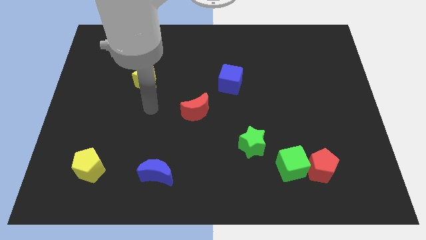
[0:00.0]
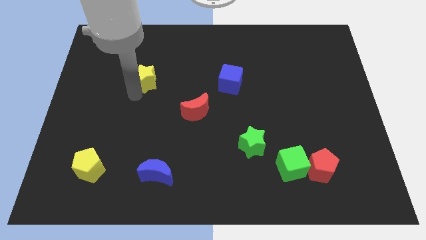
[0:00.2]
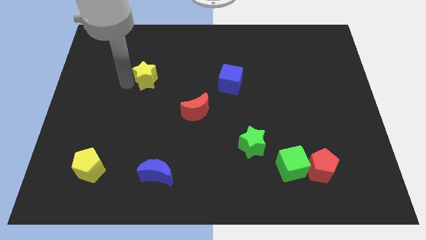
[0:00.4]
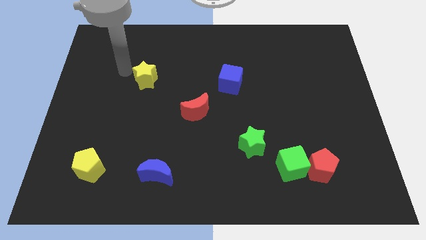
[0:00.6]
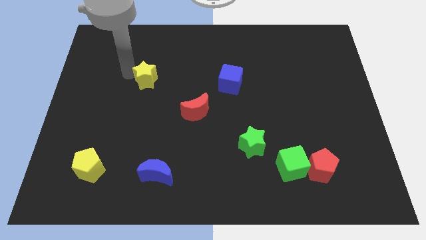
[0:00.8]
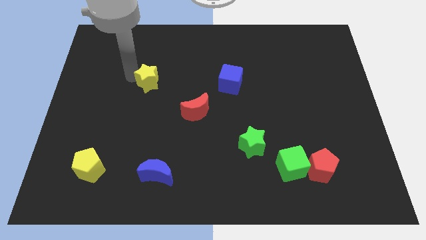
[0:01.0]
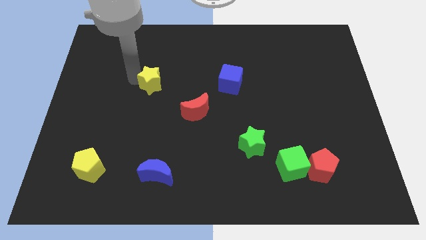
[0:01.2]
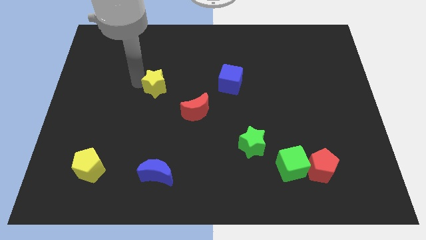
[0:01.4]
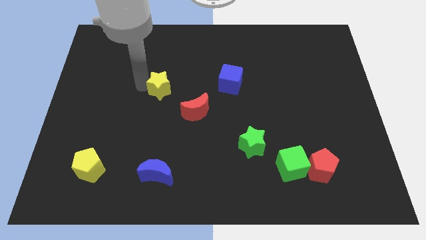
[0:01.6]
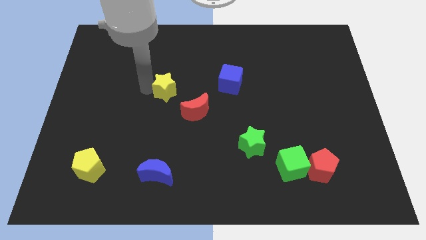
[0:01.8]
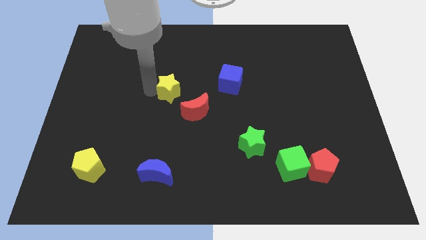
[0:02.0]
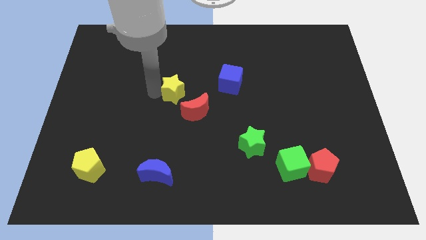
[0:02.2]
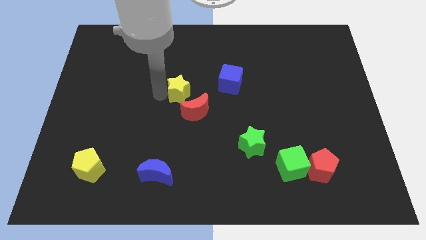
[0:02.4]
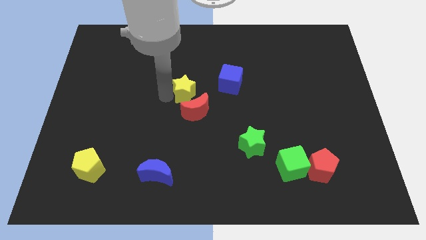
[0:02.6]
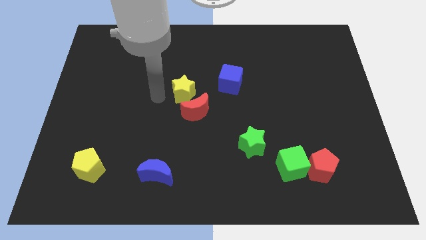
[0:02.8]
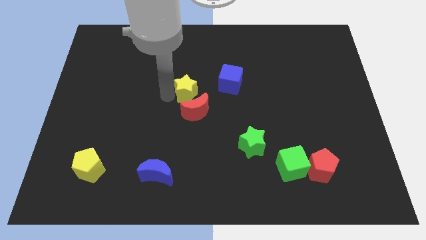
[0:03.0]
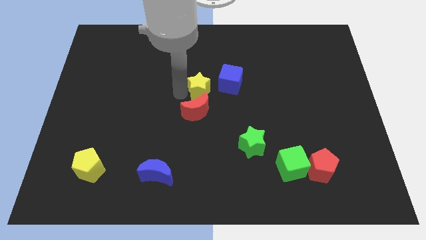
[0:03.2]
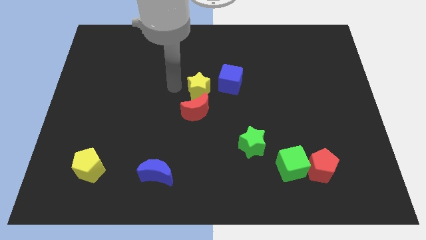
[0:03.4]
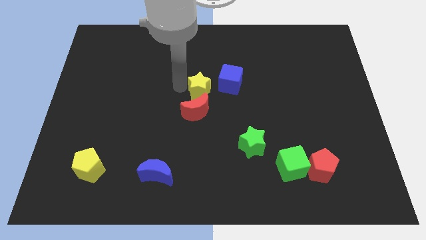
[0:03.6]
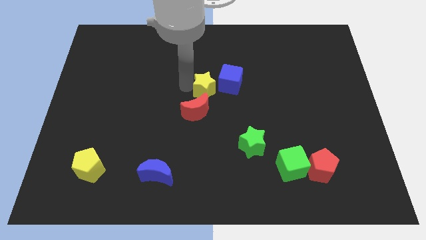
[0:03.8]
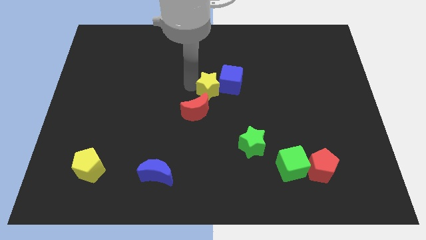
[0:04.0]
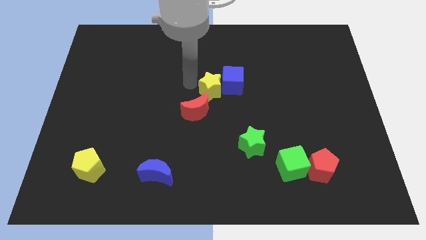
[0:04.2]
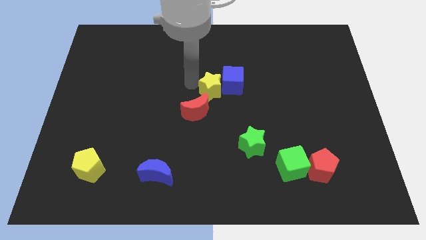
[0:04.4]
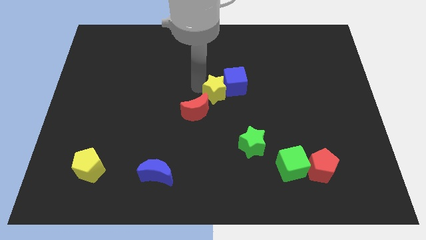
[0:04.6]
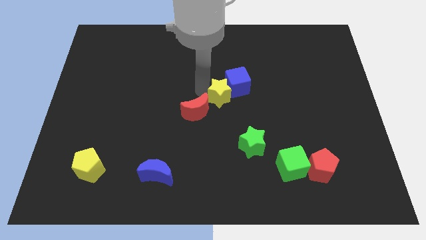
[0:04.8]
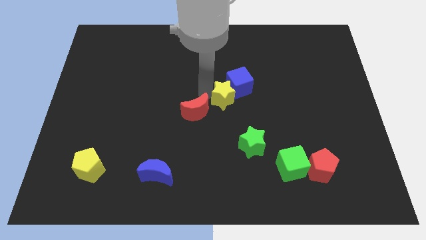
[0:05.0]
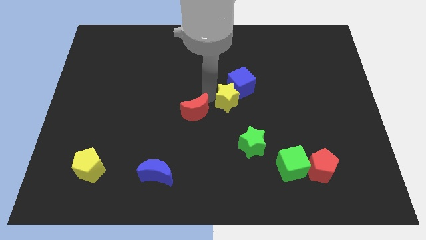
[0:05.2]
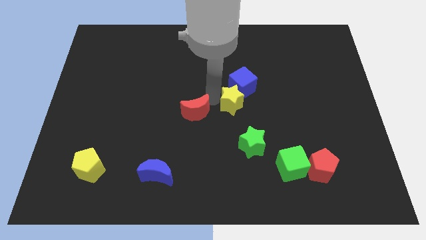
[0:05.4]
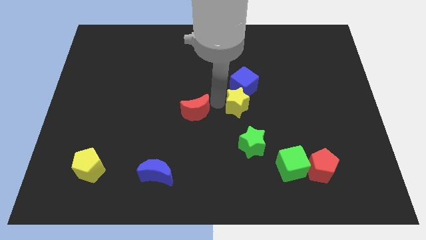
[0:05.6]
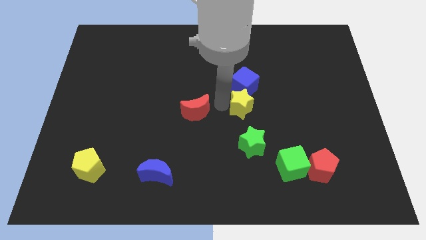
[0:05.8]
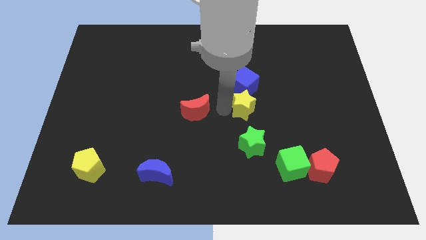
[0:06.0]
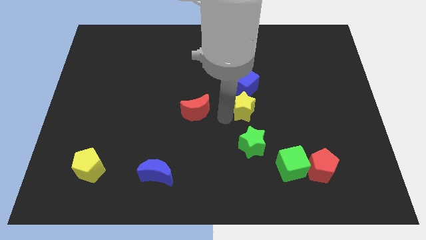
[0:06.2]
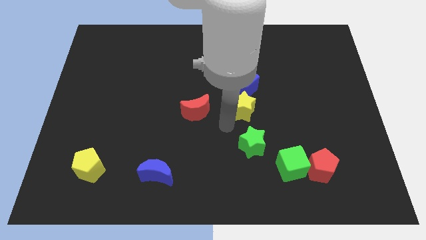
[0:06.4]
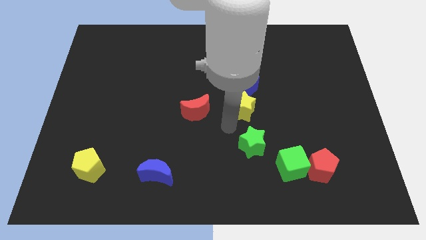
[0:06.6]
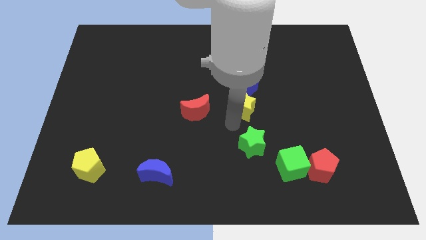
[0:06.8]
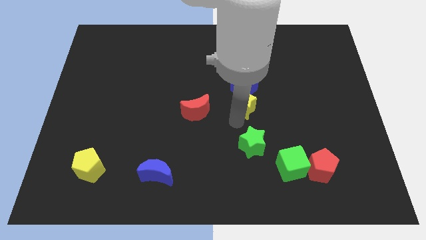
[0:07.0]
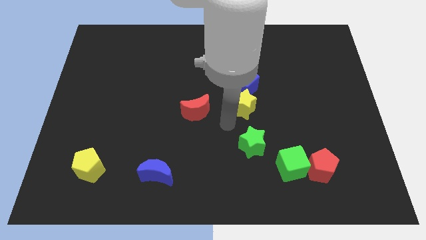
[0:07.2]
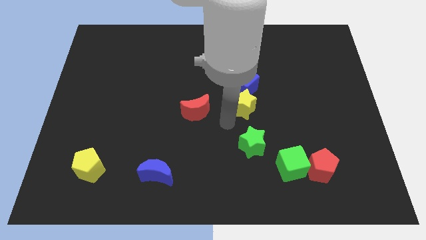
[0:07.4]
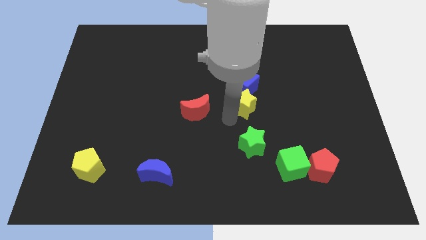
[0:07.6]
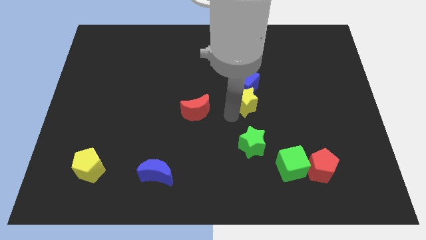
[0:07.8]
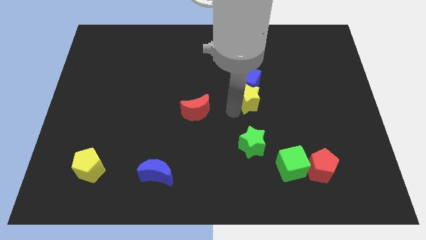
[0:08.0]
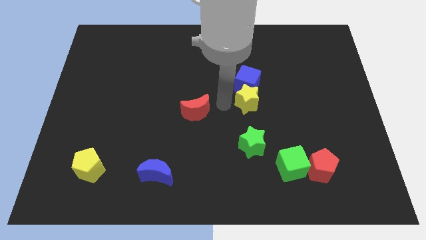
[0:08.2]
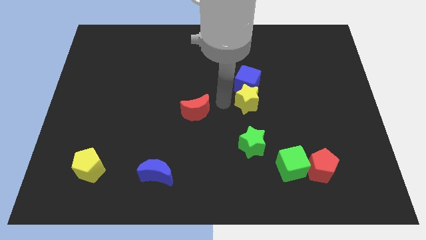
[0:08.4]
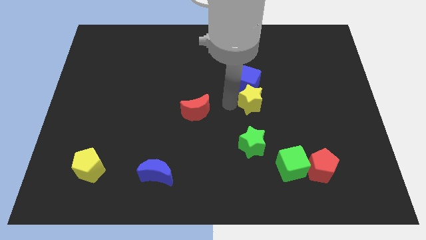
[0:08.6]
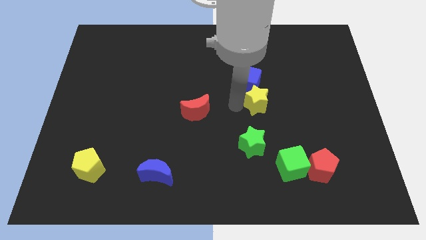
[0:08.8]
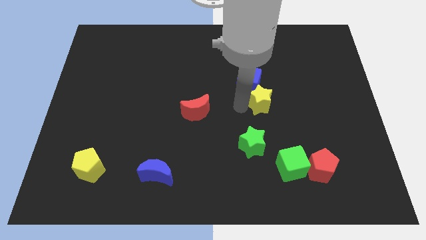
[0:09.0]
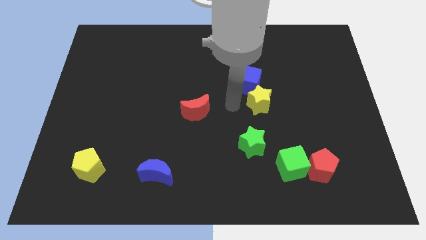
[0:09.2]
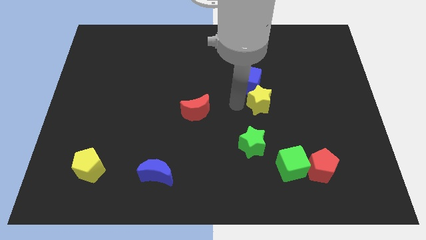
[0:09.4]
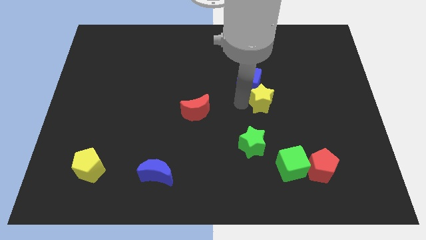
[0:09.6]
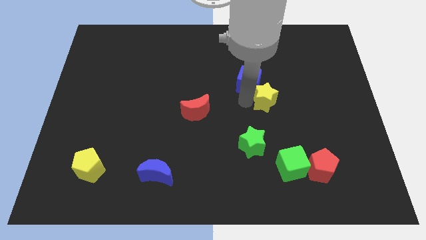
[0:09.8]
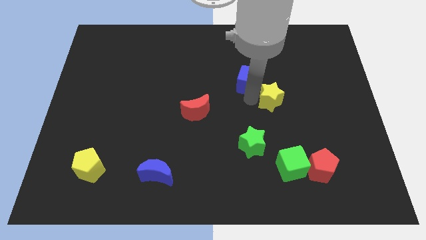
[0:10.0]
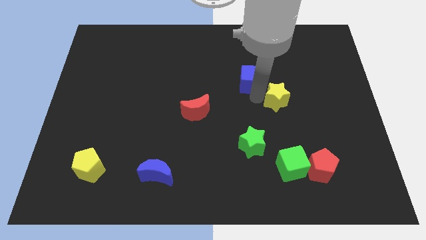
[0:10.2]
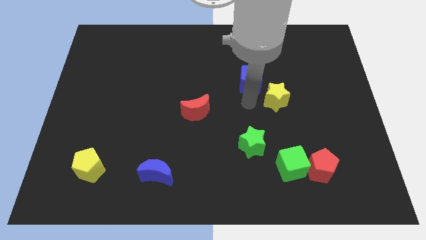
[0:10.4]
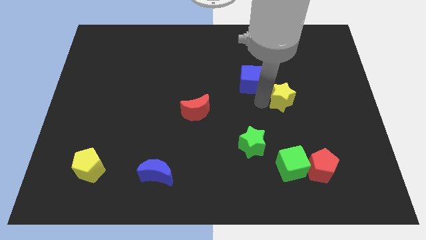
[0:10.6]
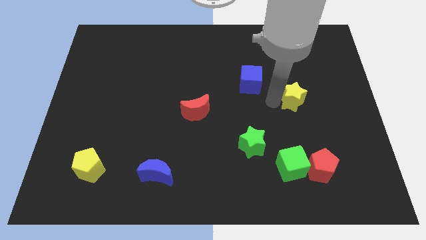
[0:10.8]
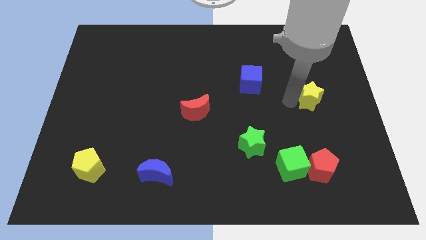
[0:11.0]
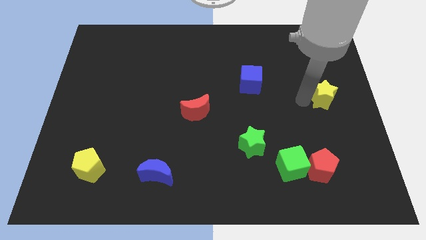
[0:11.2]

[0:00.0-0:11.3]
move the yellow star to the right side

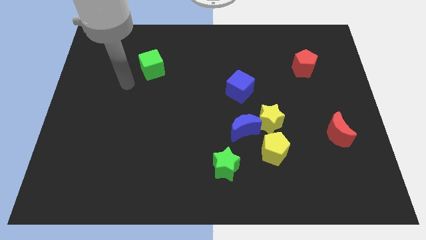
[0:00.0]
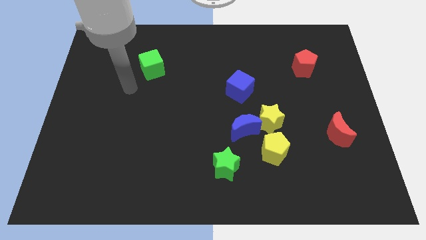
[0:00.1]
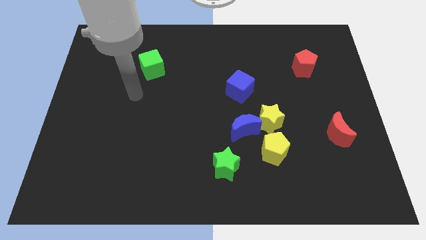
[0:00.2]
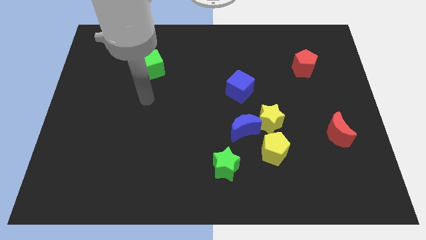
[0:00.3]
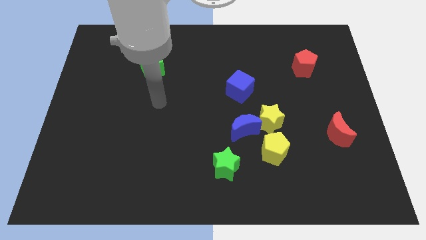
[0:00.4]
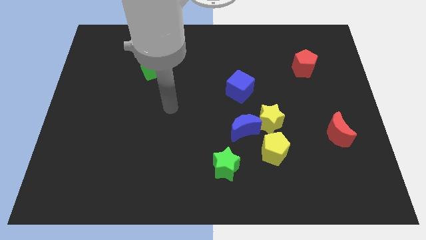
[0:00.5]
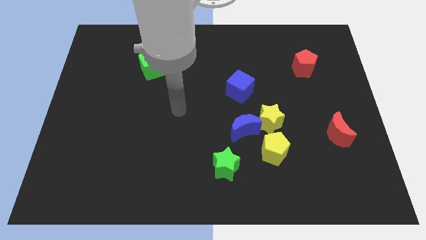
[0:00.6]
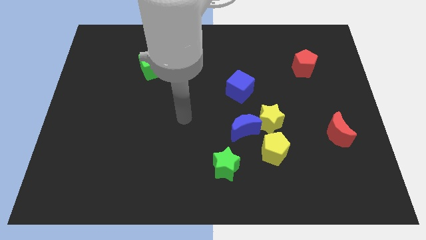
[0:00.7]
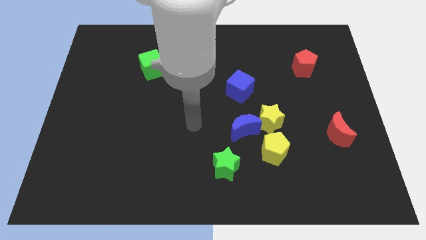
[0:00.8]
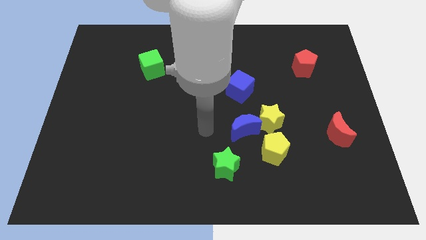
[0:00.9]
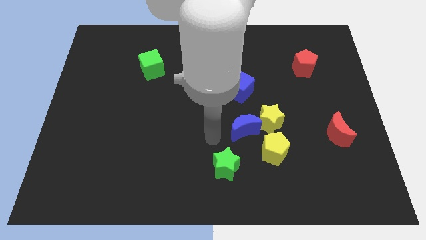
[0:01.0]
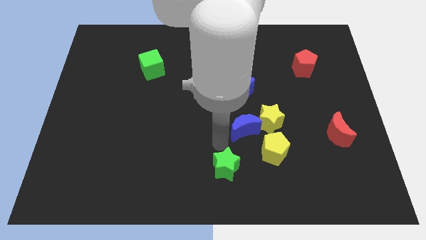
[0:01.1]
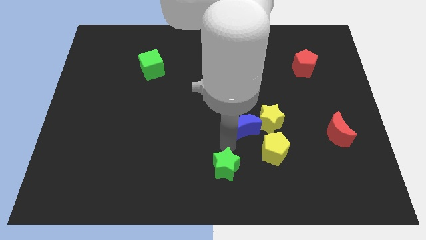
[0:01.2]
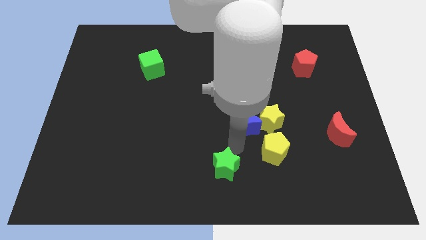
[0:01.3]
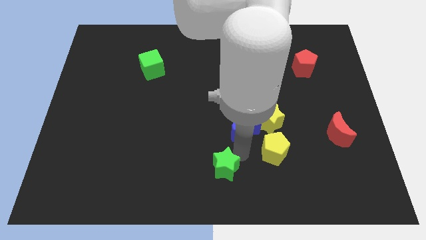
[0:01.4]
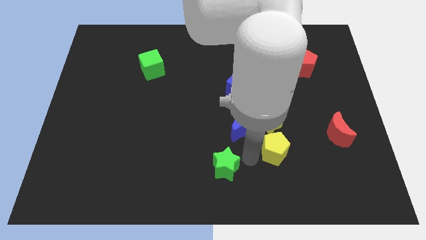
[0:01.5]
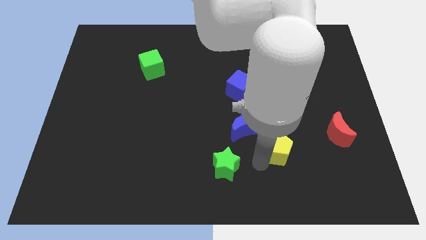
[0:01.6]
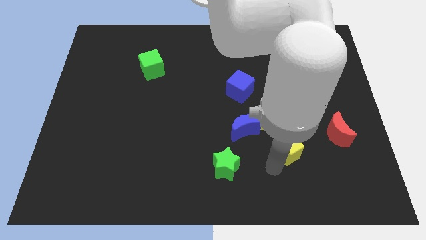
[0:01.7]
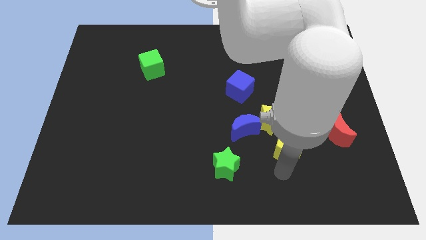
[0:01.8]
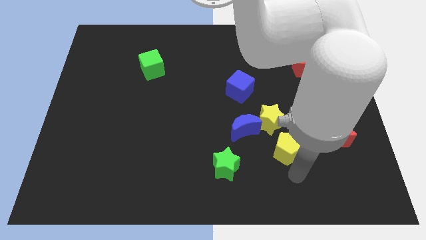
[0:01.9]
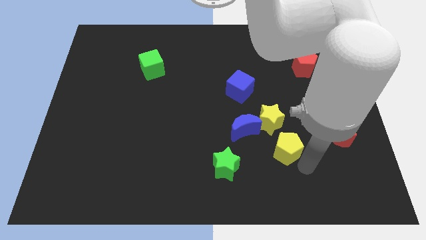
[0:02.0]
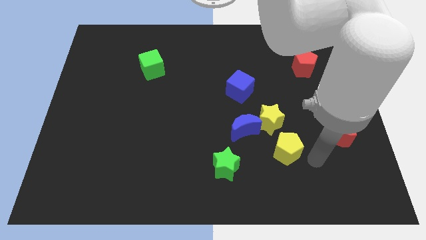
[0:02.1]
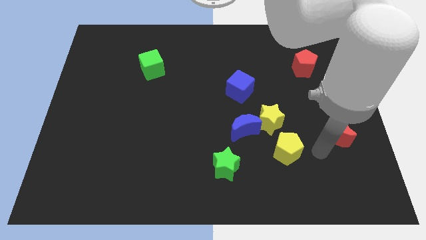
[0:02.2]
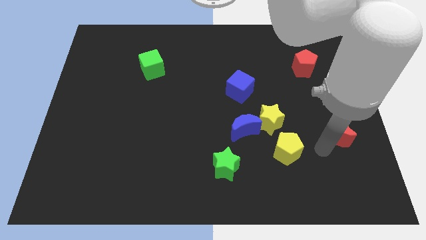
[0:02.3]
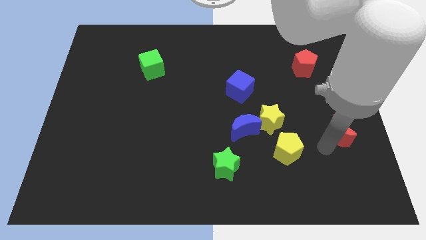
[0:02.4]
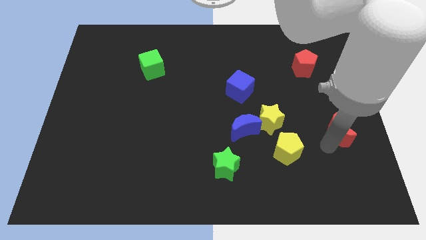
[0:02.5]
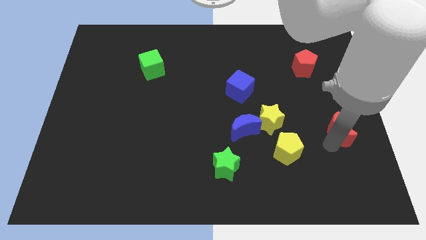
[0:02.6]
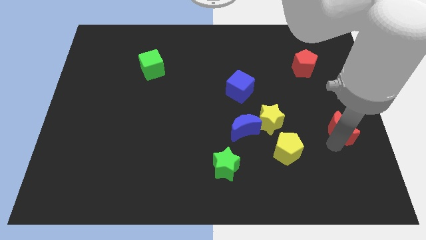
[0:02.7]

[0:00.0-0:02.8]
move the red moon to the center right
